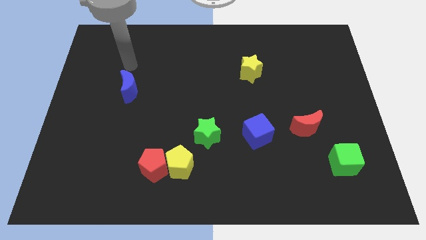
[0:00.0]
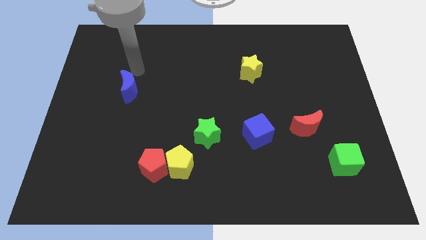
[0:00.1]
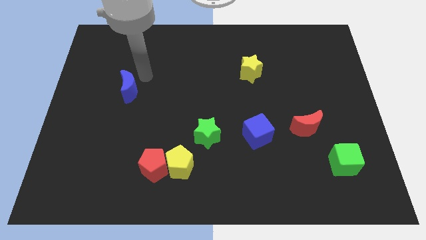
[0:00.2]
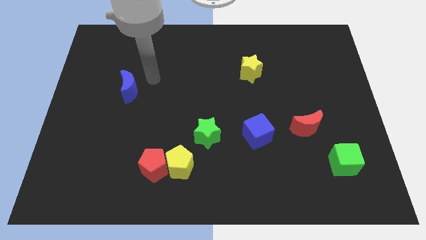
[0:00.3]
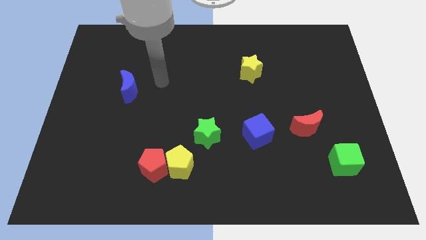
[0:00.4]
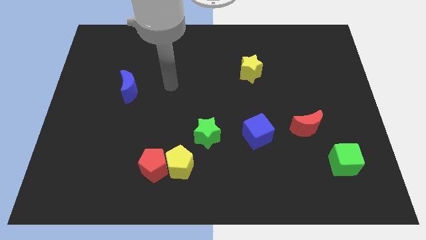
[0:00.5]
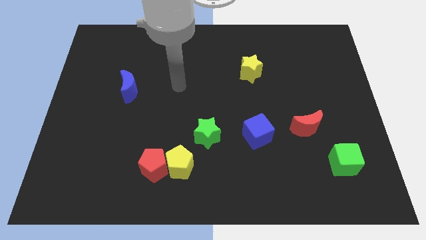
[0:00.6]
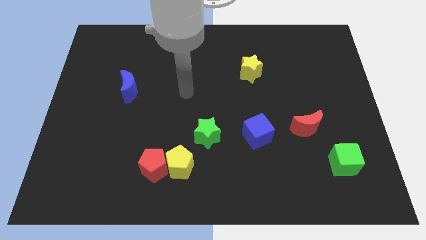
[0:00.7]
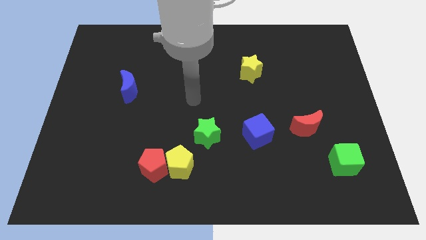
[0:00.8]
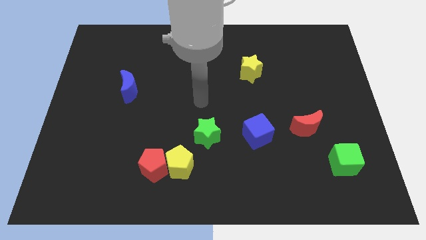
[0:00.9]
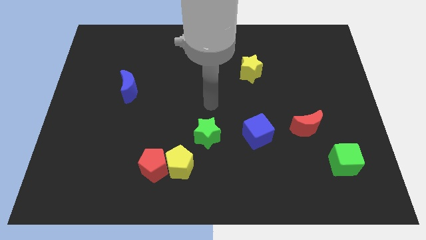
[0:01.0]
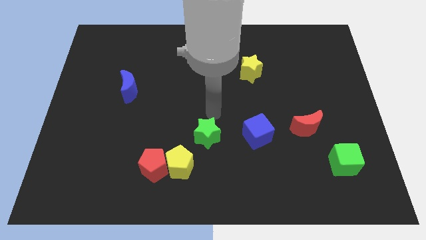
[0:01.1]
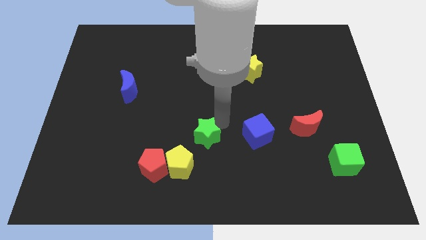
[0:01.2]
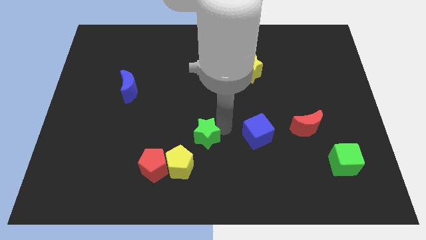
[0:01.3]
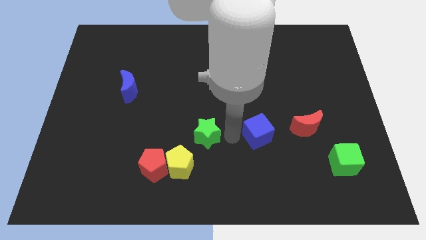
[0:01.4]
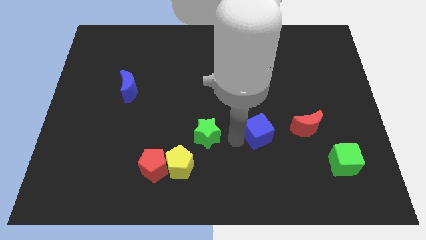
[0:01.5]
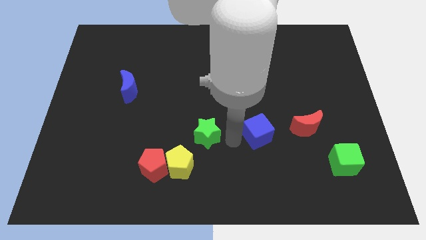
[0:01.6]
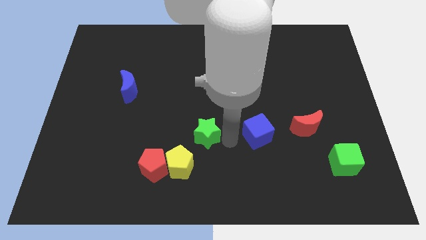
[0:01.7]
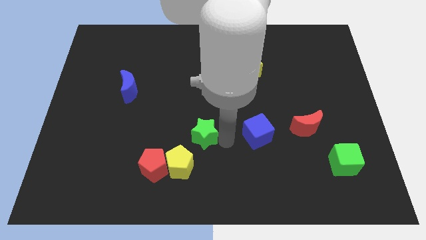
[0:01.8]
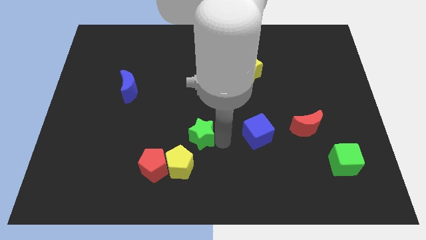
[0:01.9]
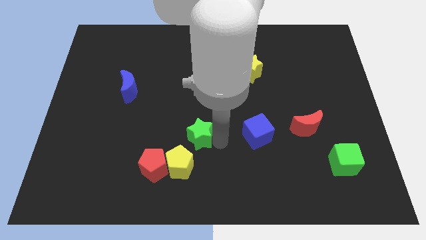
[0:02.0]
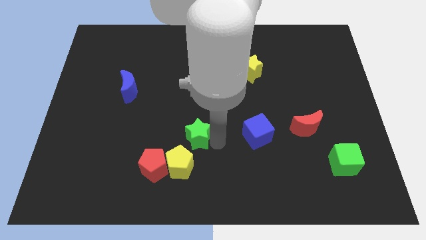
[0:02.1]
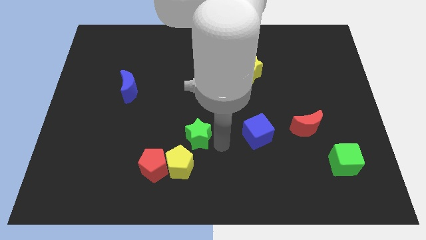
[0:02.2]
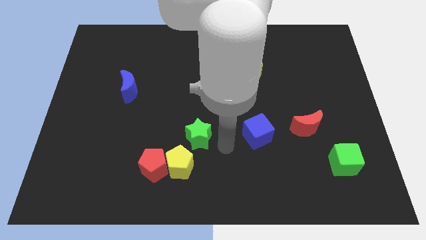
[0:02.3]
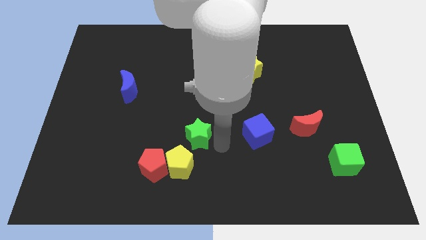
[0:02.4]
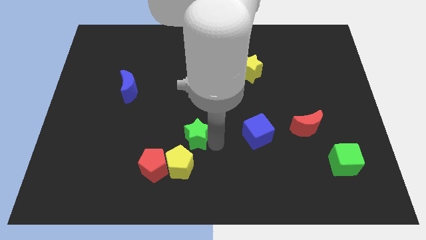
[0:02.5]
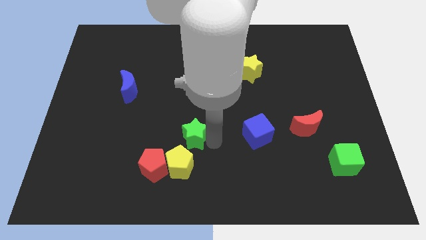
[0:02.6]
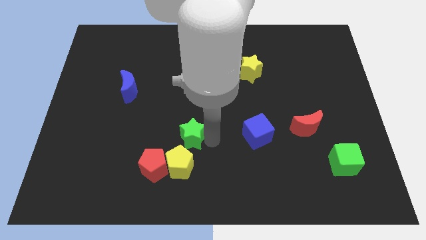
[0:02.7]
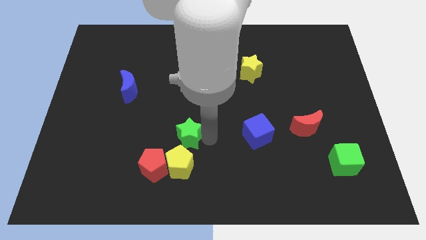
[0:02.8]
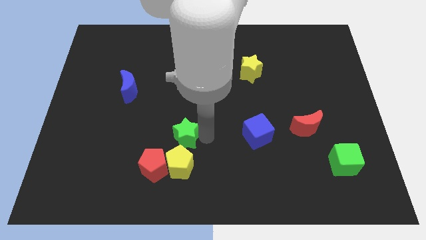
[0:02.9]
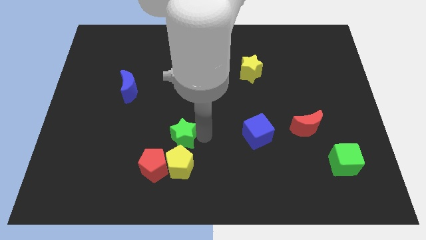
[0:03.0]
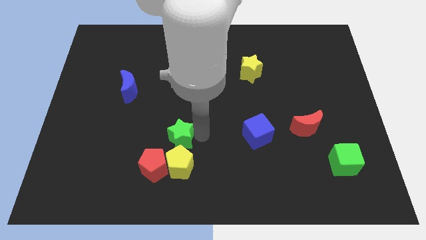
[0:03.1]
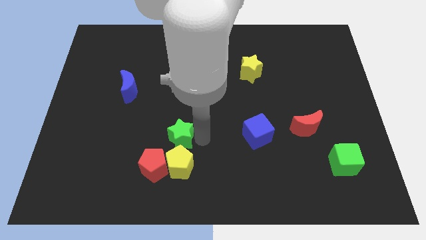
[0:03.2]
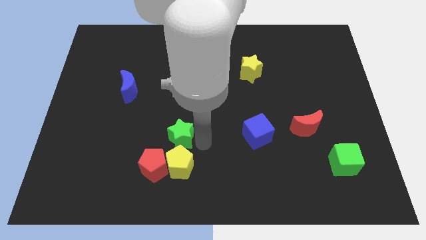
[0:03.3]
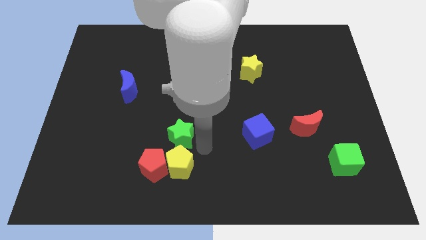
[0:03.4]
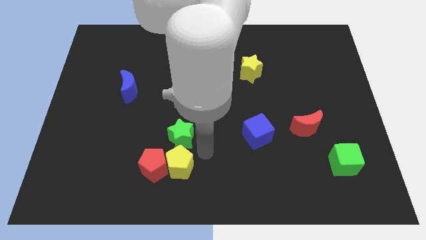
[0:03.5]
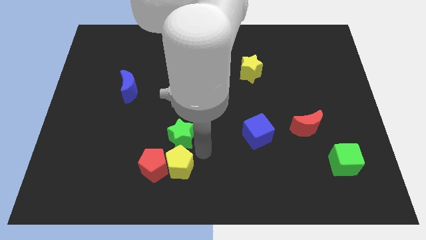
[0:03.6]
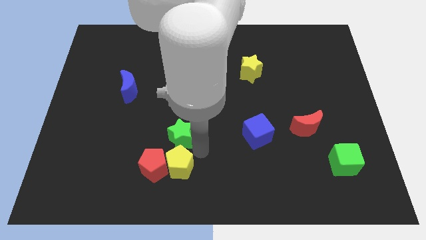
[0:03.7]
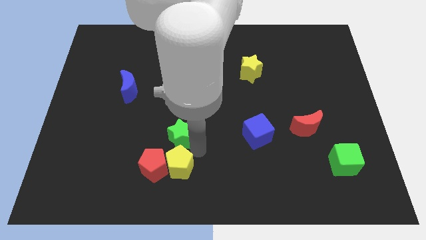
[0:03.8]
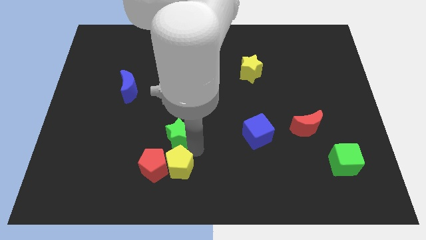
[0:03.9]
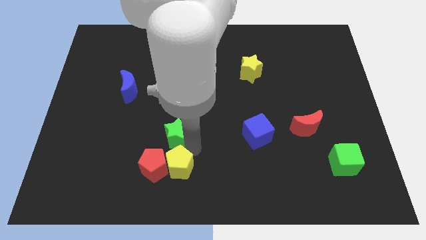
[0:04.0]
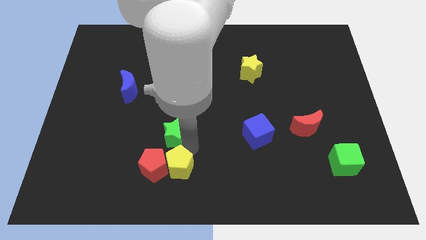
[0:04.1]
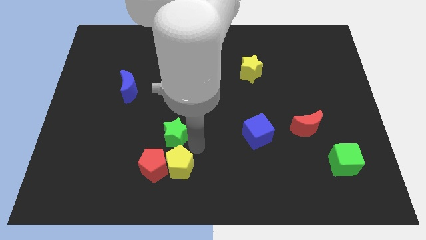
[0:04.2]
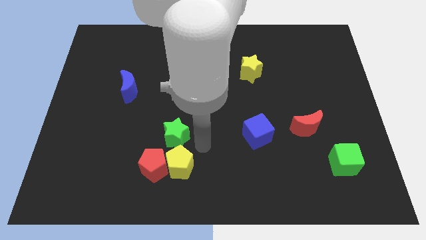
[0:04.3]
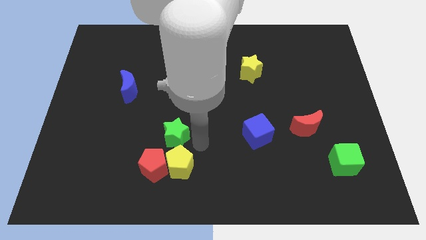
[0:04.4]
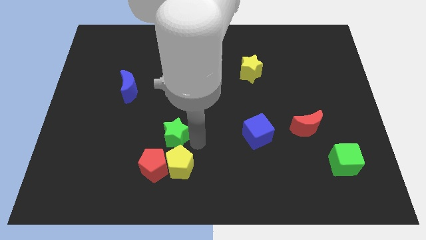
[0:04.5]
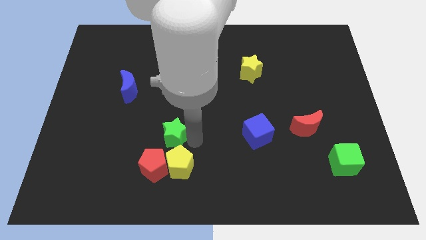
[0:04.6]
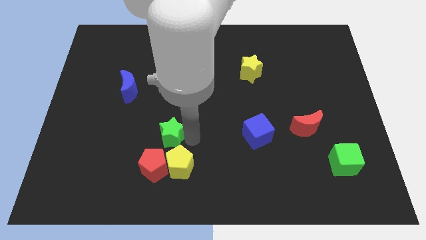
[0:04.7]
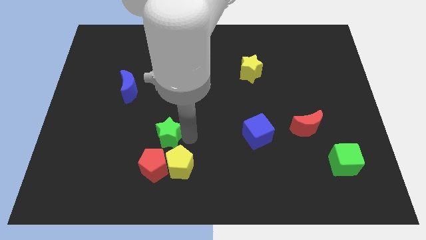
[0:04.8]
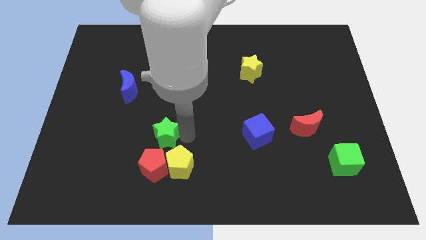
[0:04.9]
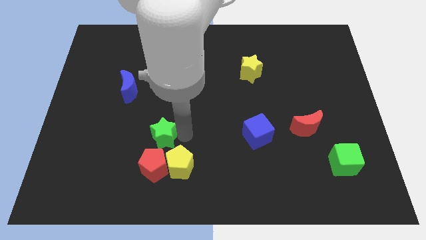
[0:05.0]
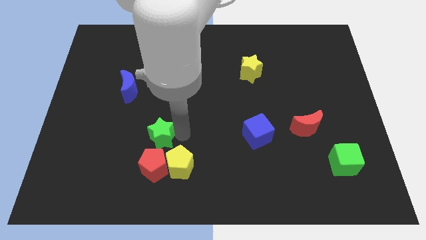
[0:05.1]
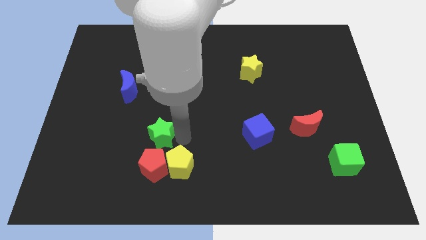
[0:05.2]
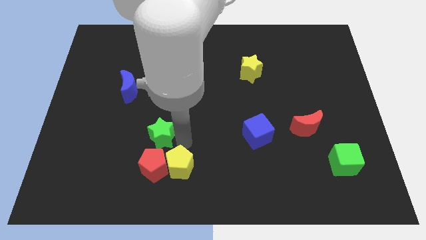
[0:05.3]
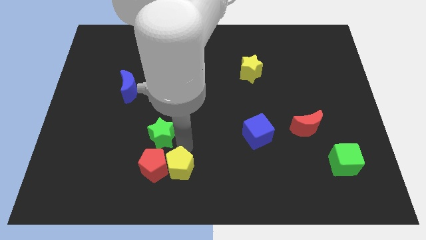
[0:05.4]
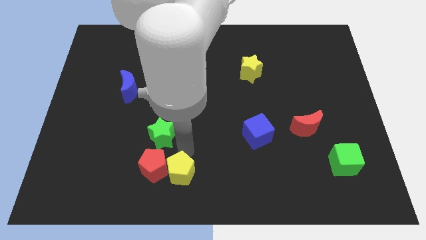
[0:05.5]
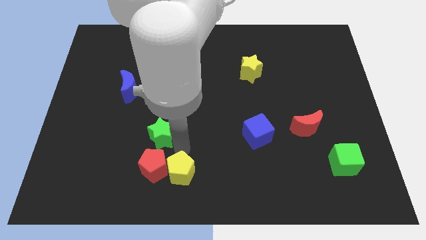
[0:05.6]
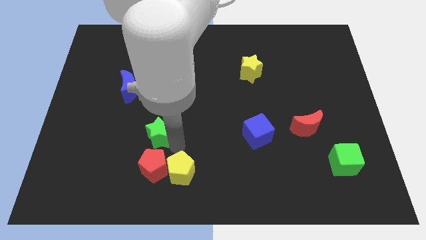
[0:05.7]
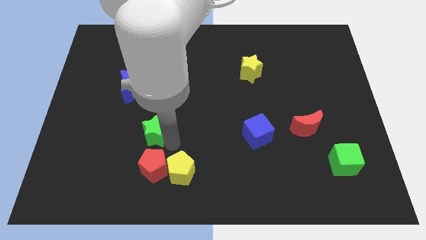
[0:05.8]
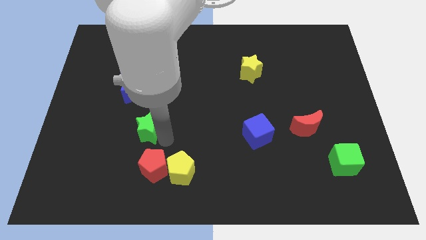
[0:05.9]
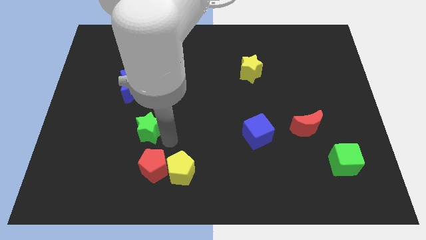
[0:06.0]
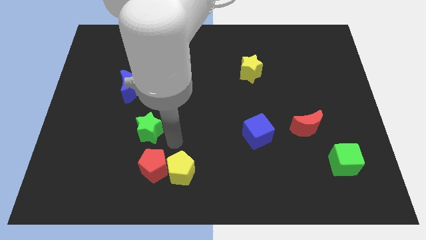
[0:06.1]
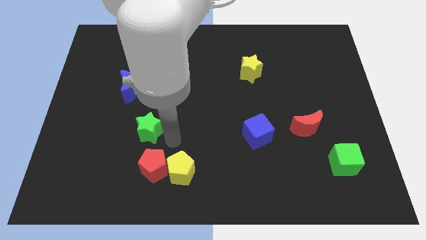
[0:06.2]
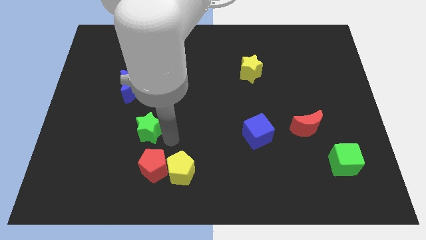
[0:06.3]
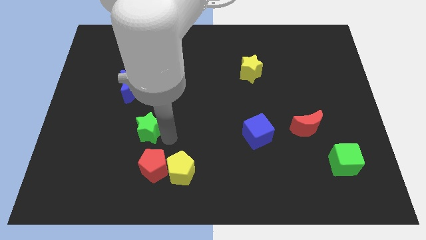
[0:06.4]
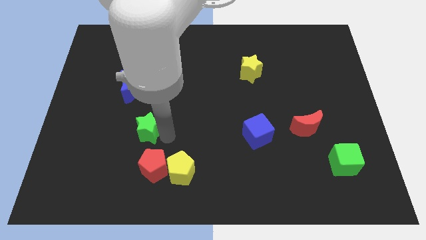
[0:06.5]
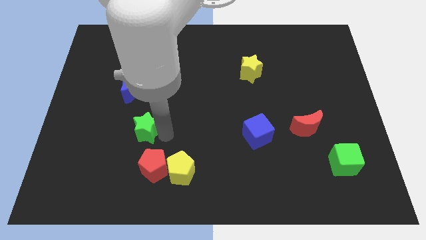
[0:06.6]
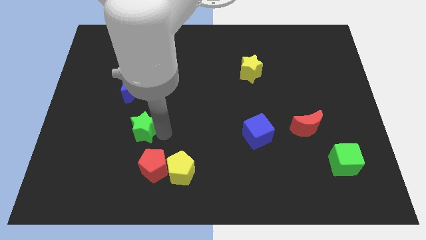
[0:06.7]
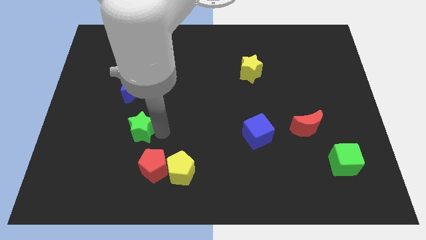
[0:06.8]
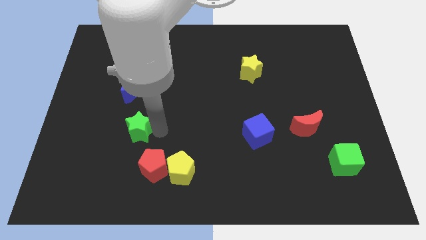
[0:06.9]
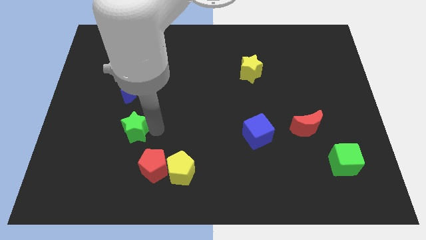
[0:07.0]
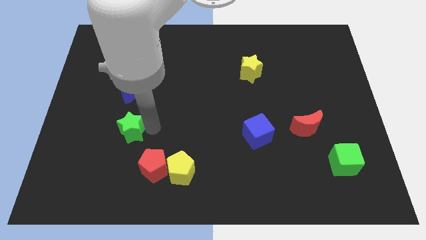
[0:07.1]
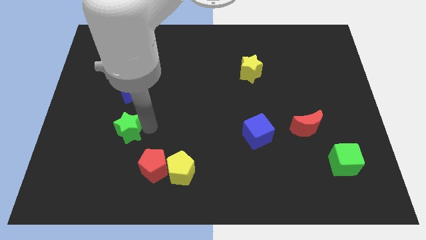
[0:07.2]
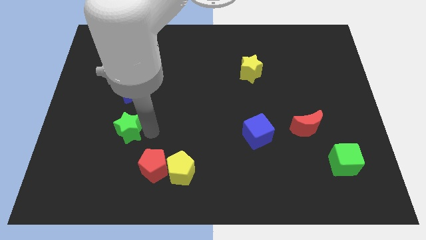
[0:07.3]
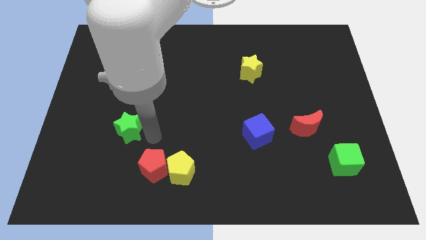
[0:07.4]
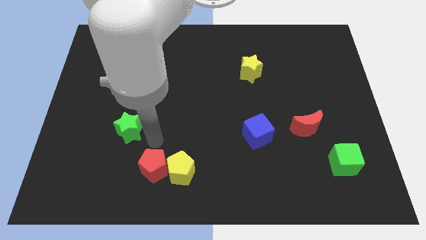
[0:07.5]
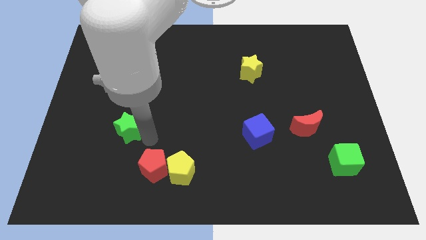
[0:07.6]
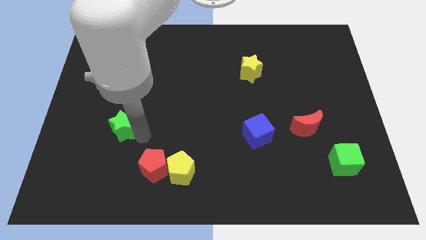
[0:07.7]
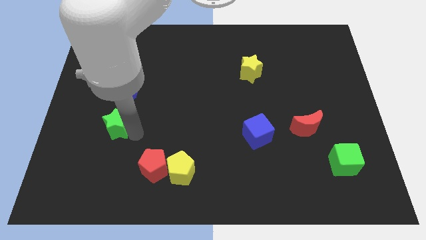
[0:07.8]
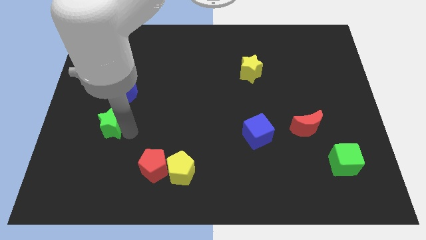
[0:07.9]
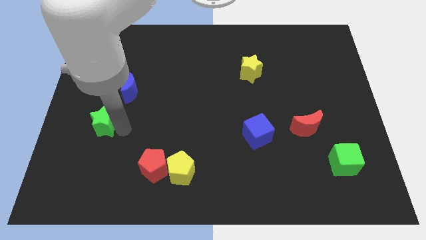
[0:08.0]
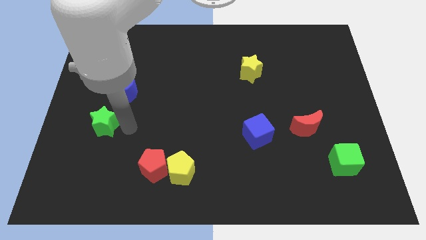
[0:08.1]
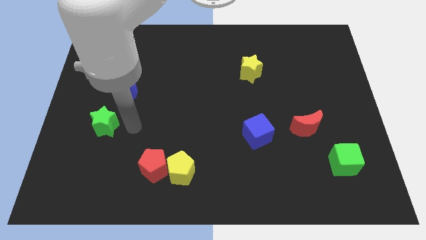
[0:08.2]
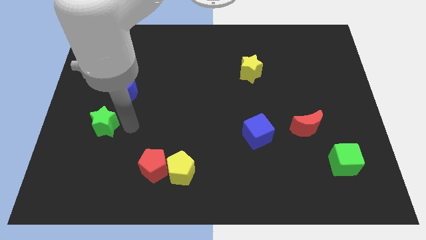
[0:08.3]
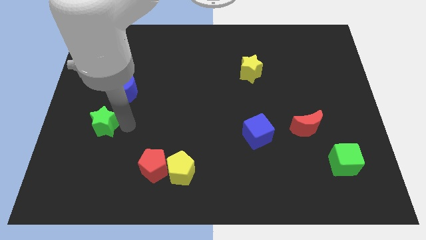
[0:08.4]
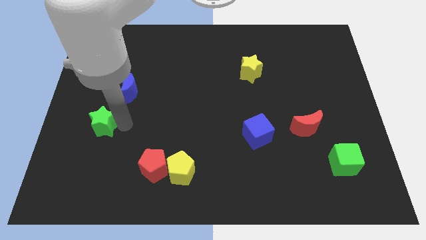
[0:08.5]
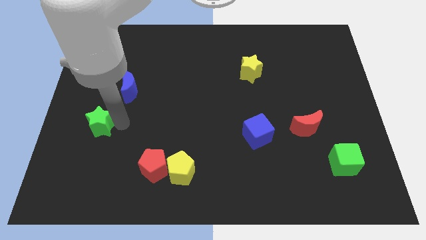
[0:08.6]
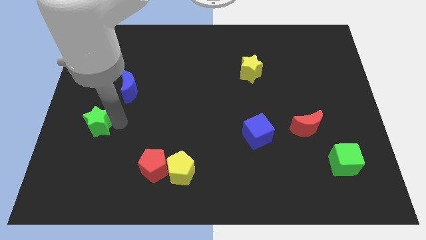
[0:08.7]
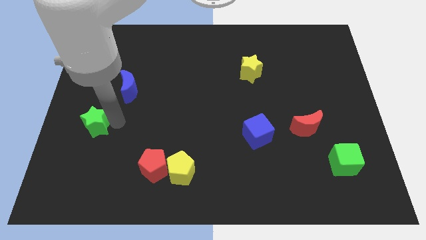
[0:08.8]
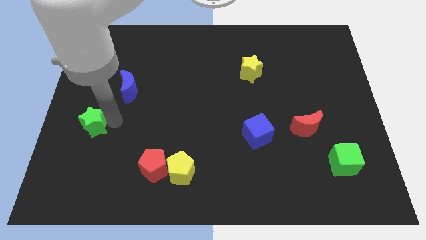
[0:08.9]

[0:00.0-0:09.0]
push the green star to the left side of the board
